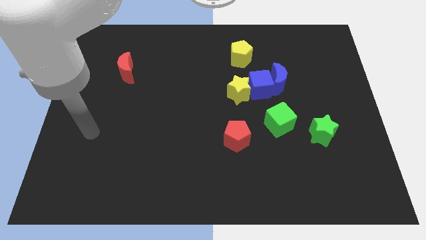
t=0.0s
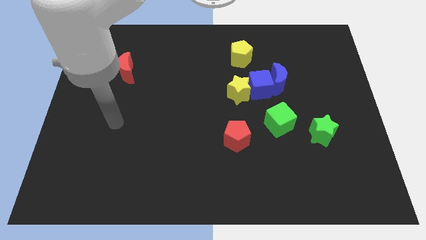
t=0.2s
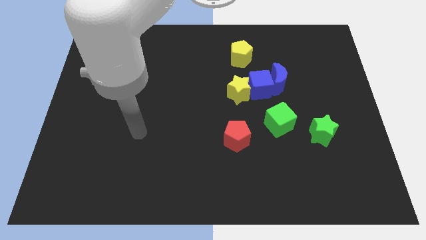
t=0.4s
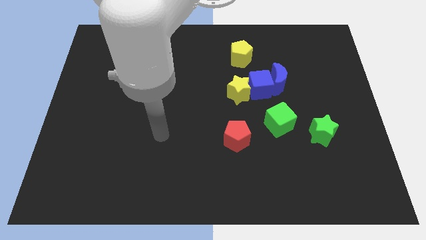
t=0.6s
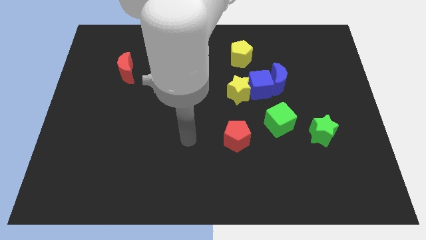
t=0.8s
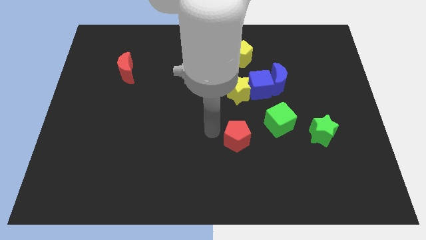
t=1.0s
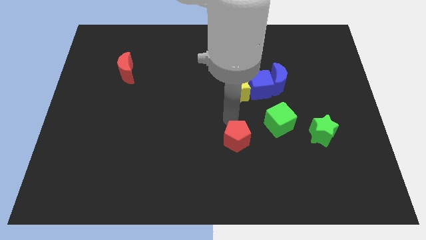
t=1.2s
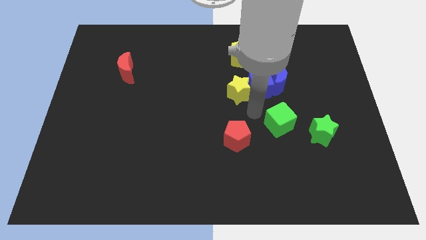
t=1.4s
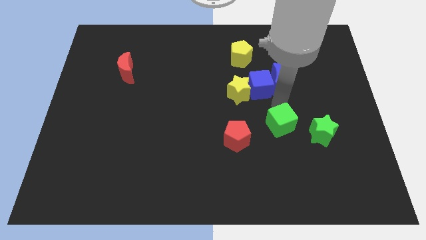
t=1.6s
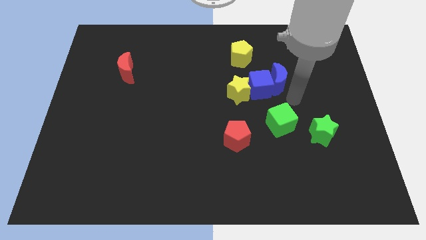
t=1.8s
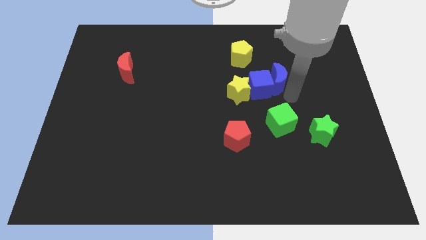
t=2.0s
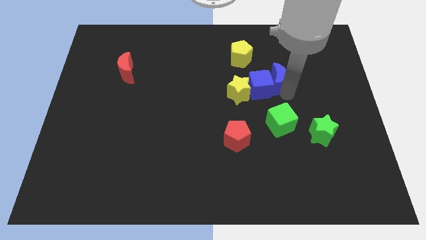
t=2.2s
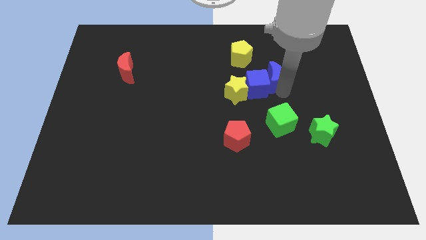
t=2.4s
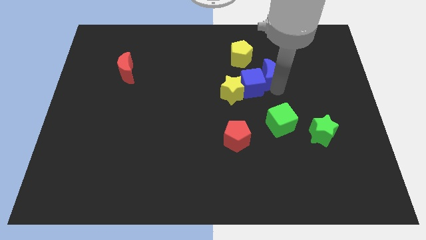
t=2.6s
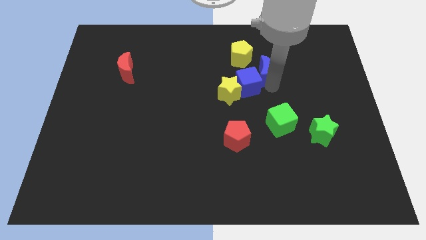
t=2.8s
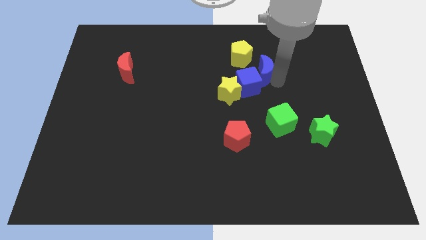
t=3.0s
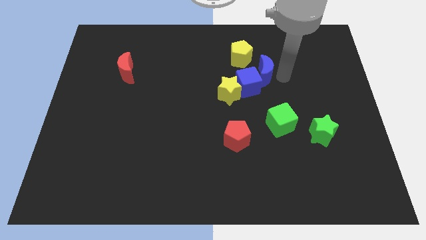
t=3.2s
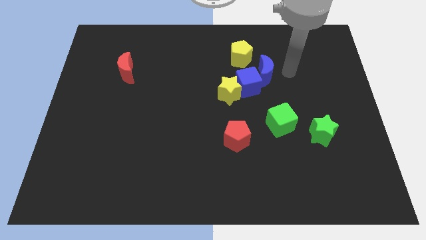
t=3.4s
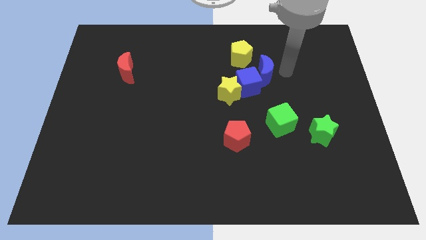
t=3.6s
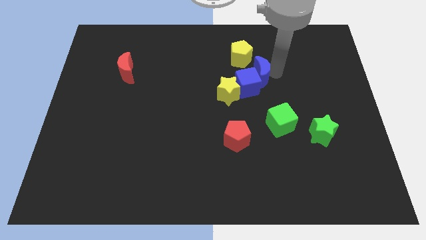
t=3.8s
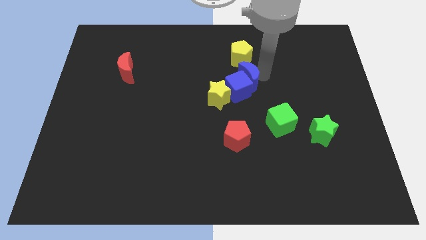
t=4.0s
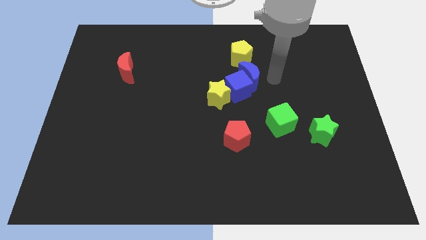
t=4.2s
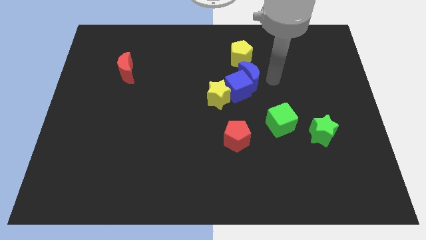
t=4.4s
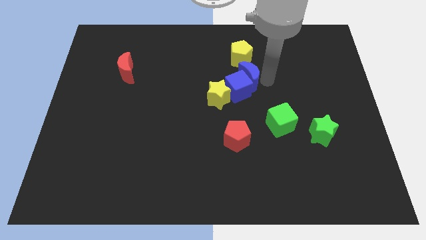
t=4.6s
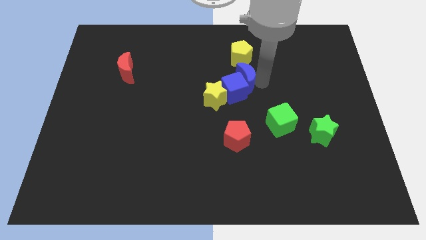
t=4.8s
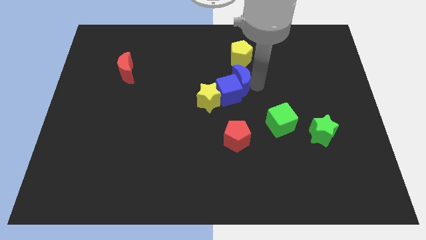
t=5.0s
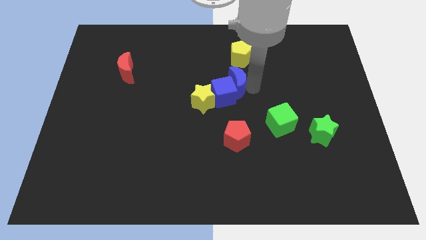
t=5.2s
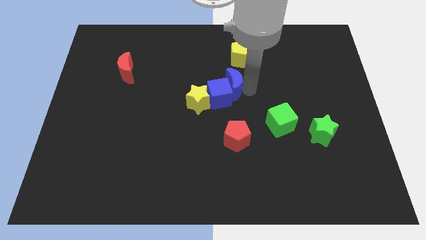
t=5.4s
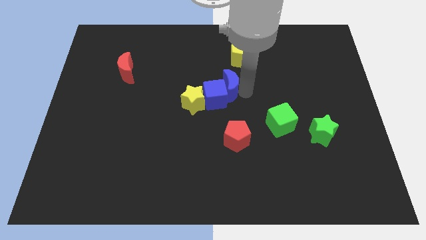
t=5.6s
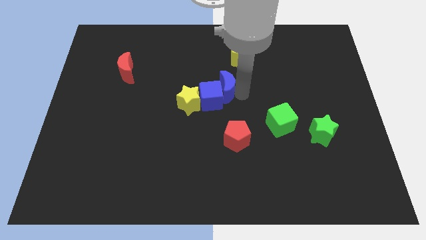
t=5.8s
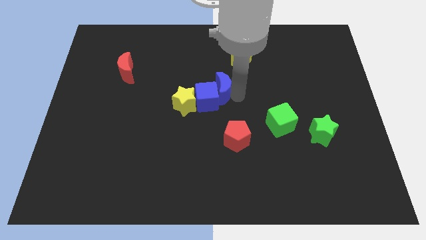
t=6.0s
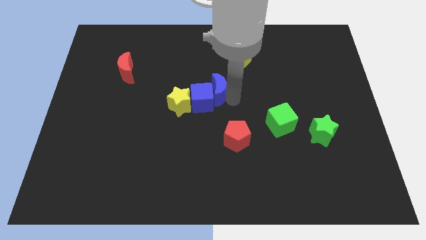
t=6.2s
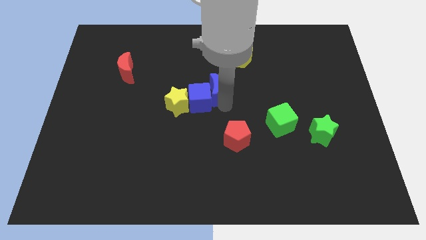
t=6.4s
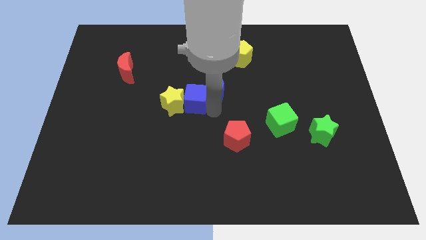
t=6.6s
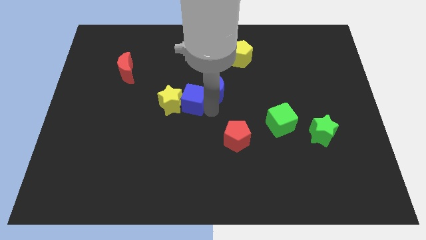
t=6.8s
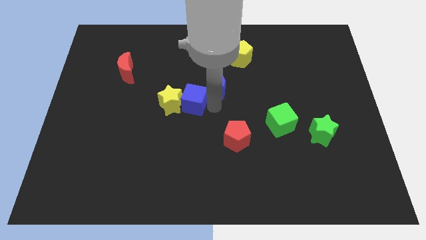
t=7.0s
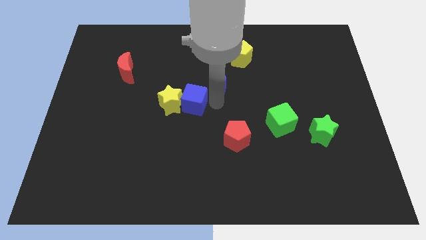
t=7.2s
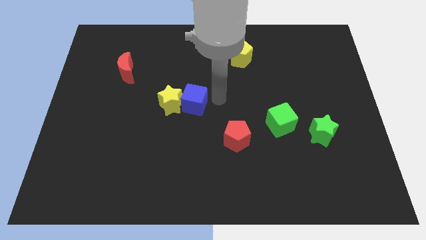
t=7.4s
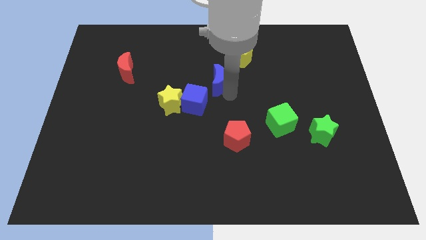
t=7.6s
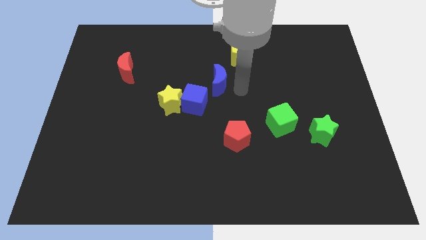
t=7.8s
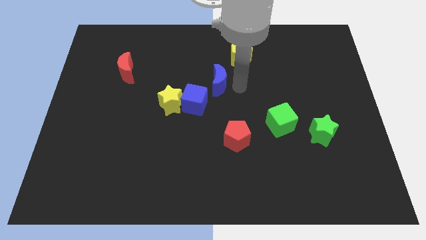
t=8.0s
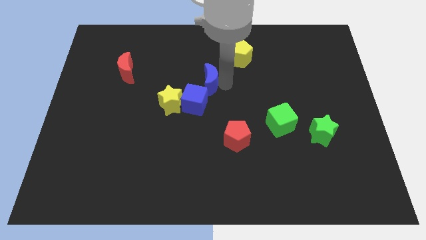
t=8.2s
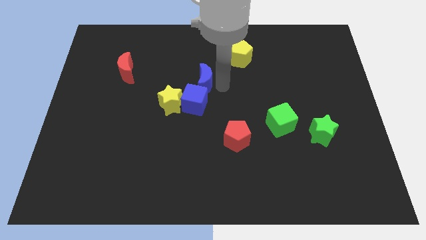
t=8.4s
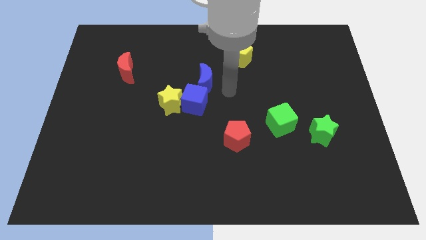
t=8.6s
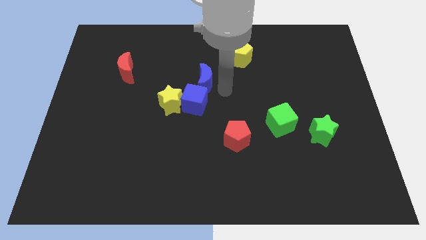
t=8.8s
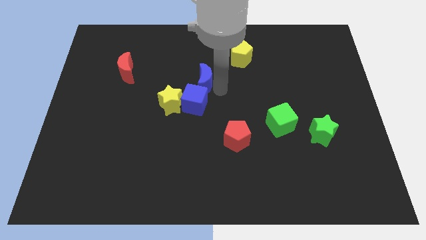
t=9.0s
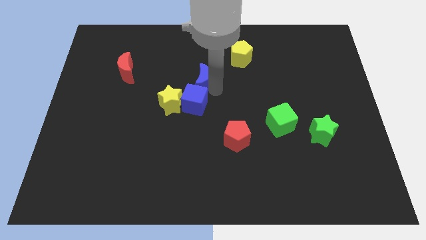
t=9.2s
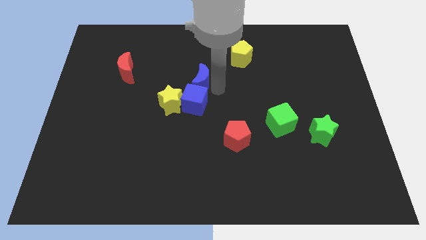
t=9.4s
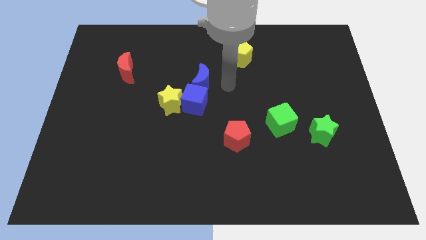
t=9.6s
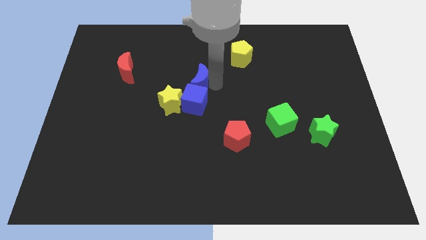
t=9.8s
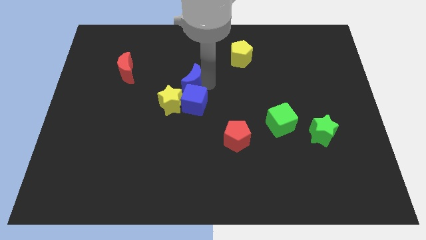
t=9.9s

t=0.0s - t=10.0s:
slide the blue moon to the left

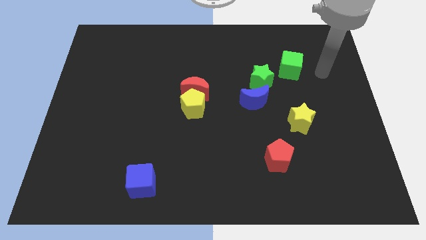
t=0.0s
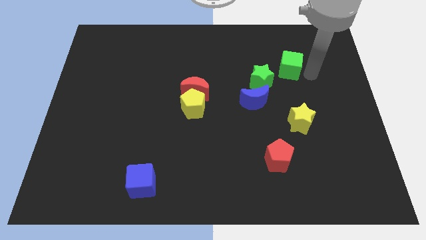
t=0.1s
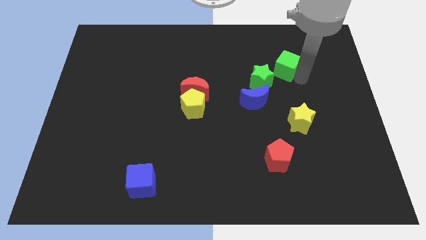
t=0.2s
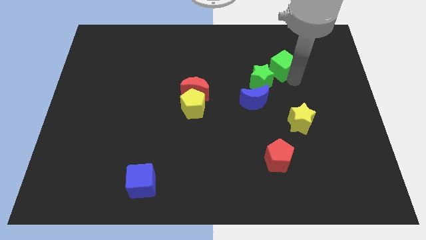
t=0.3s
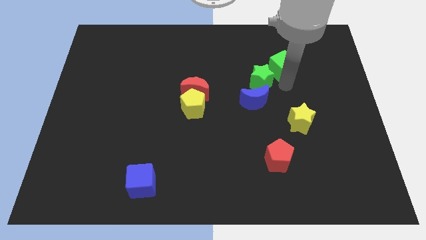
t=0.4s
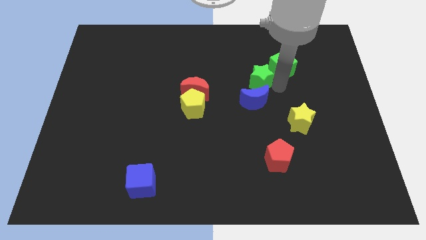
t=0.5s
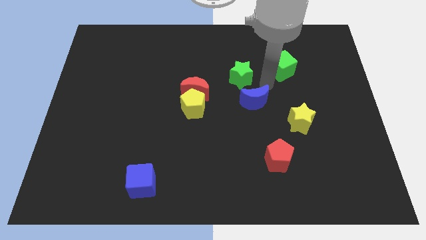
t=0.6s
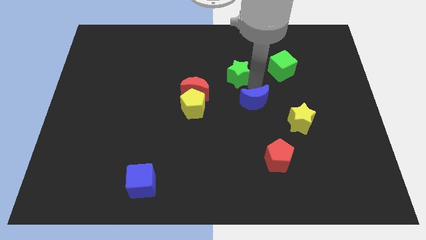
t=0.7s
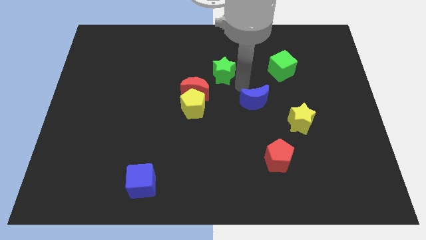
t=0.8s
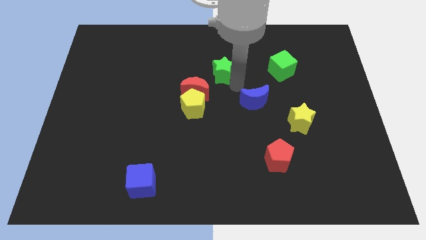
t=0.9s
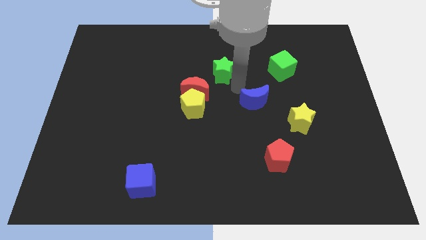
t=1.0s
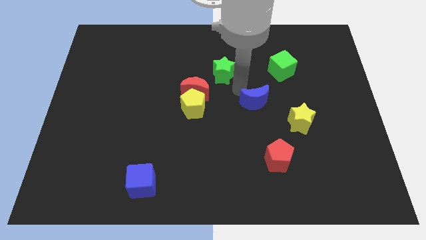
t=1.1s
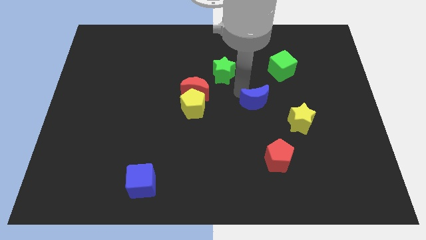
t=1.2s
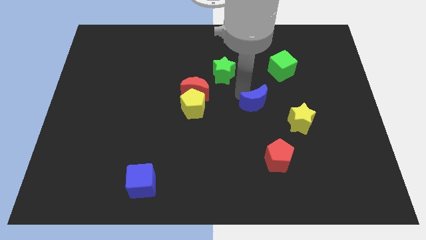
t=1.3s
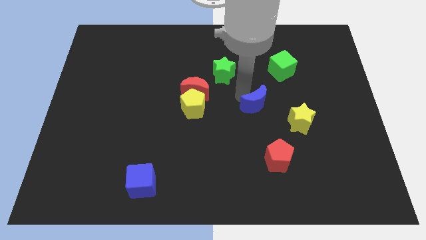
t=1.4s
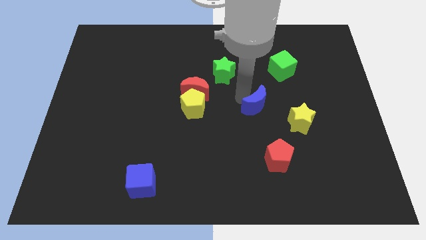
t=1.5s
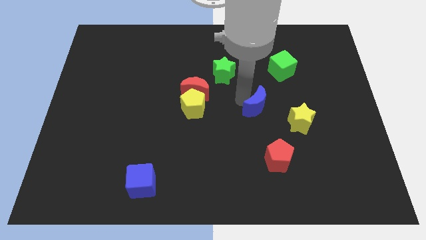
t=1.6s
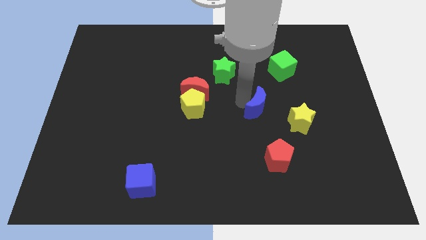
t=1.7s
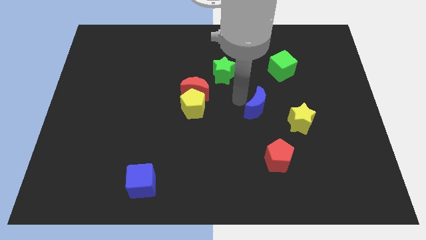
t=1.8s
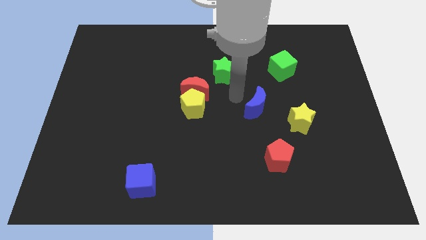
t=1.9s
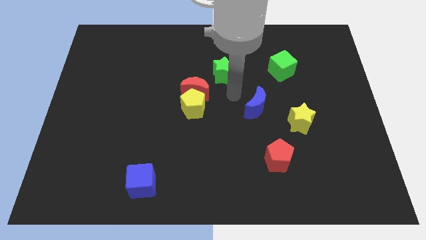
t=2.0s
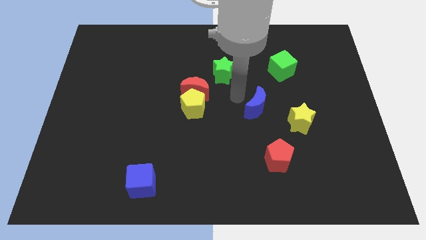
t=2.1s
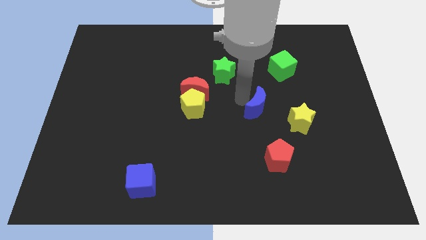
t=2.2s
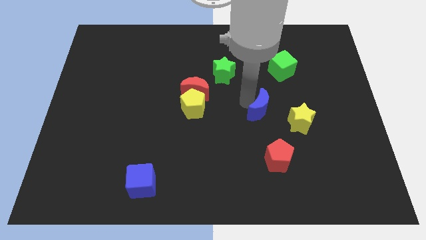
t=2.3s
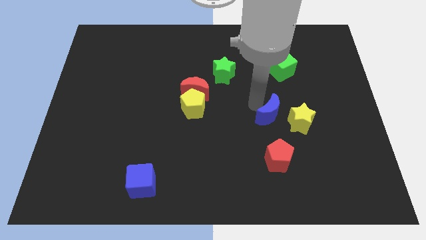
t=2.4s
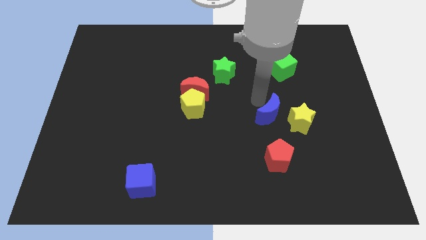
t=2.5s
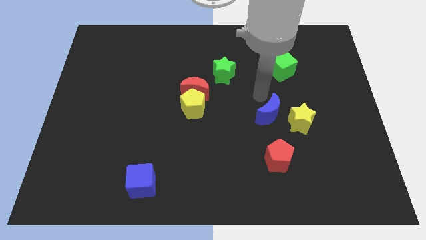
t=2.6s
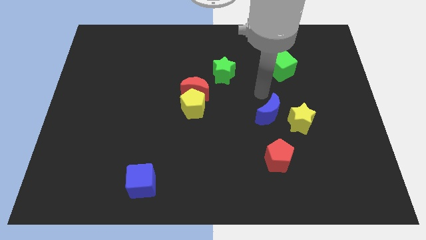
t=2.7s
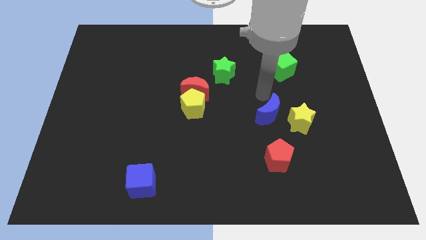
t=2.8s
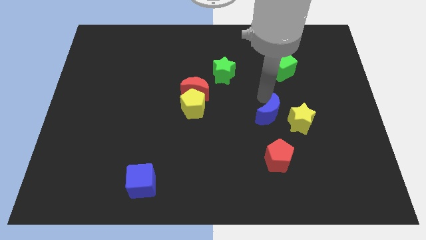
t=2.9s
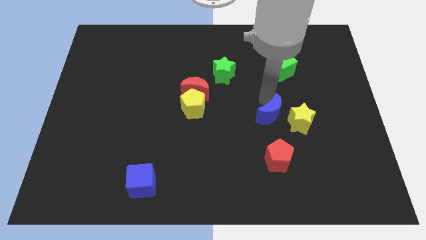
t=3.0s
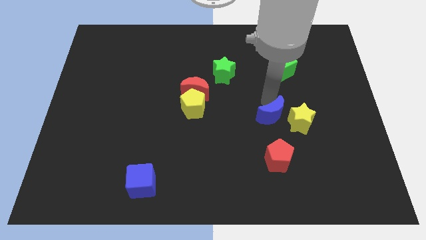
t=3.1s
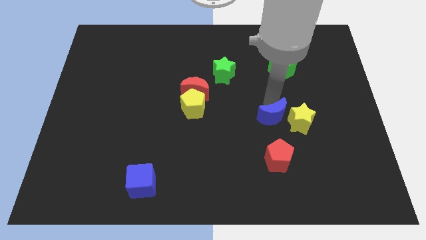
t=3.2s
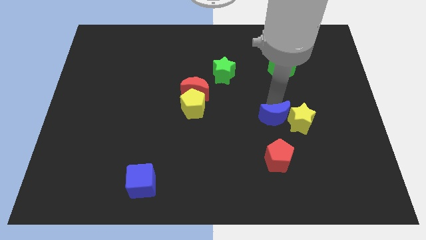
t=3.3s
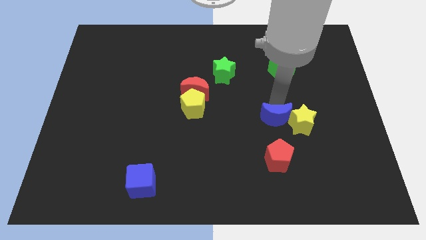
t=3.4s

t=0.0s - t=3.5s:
move the blue moon down and then to the right a little
